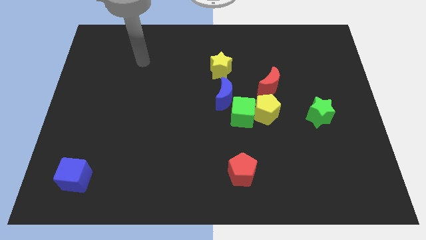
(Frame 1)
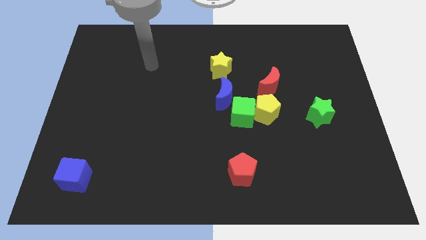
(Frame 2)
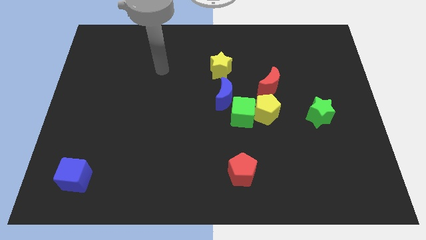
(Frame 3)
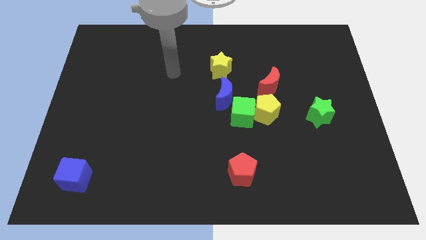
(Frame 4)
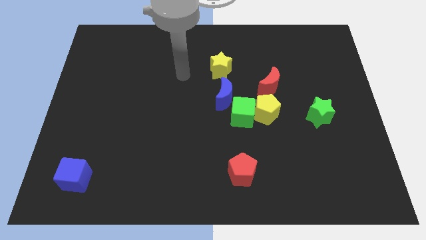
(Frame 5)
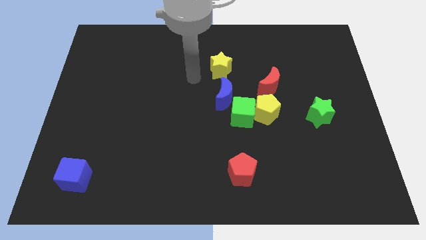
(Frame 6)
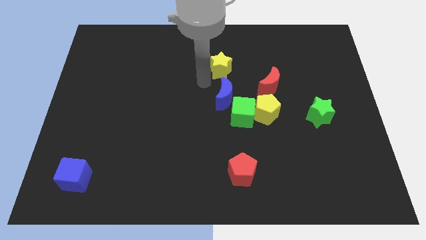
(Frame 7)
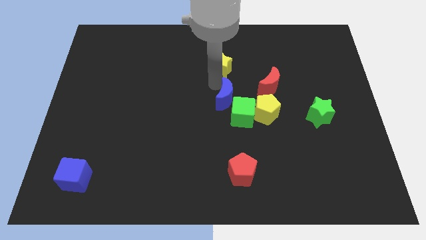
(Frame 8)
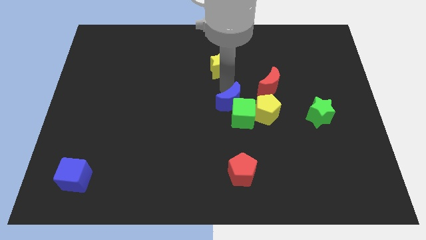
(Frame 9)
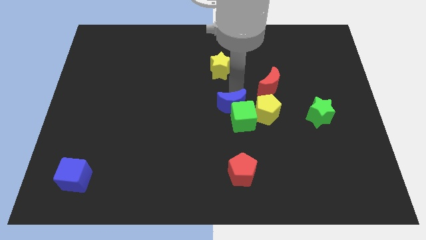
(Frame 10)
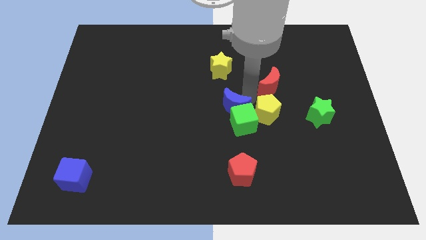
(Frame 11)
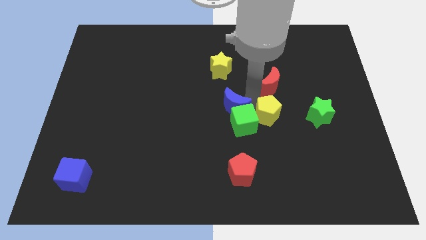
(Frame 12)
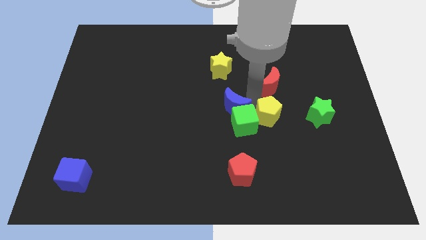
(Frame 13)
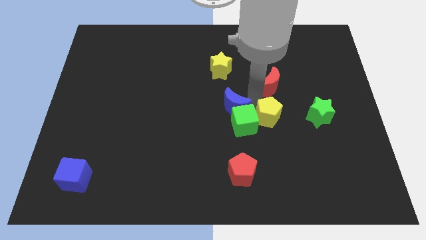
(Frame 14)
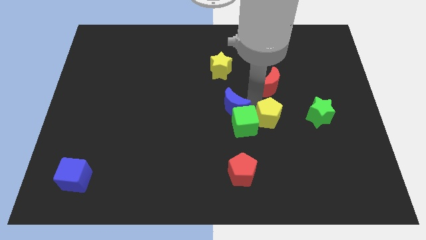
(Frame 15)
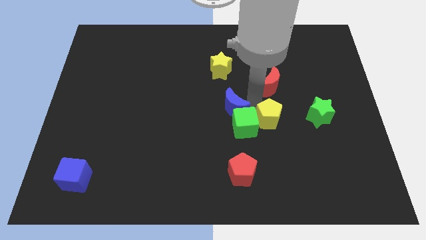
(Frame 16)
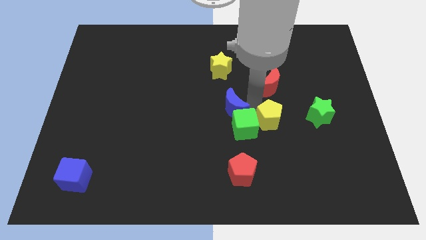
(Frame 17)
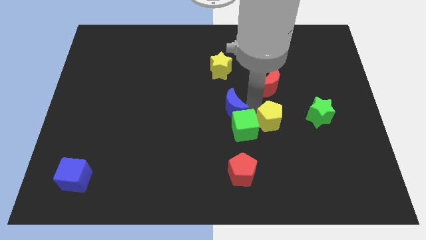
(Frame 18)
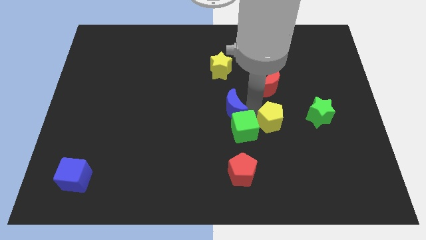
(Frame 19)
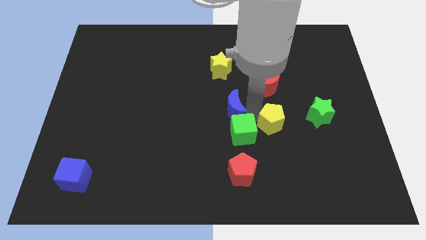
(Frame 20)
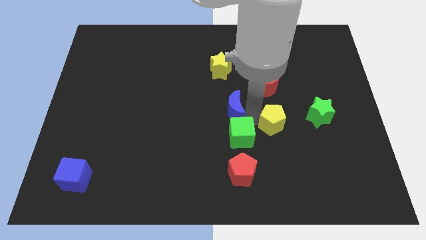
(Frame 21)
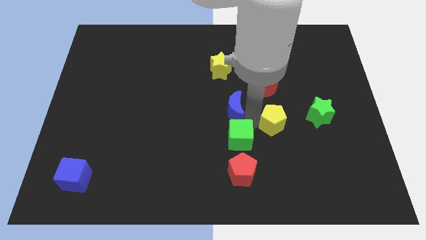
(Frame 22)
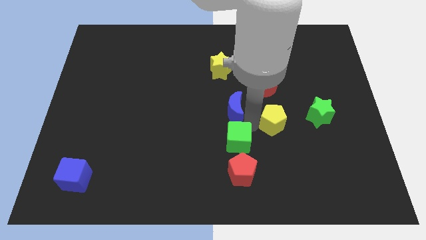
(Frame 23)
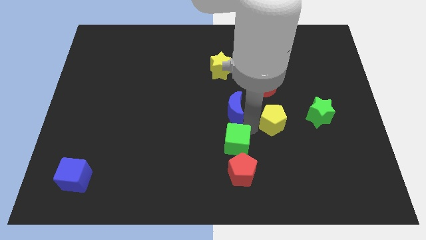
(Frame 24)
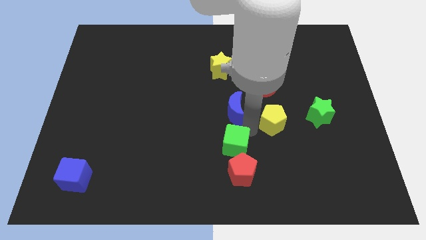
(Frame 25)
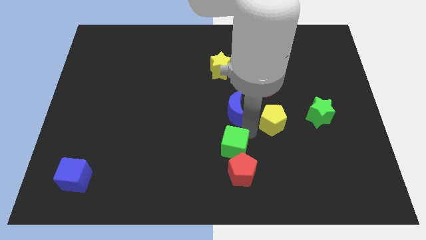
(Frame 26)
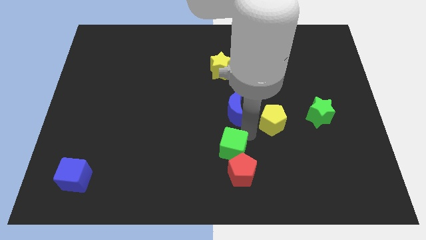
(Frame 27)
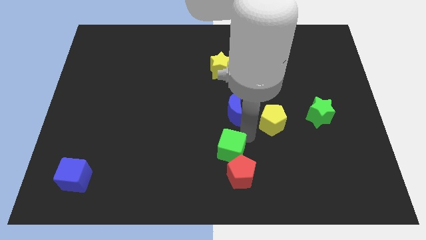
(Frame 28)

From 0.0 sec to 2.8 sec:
move the green cube away from the yellow pentagon and blue moon

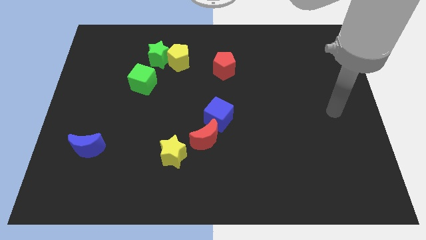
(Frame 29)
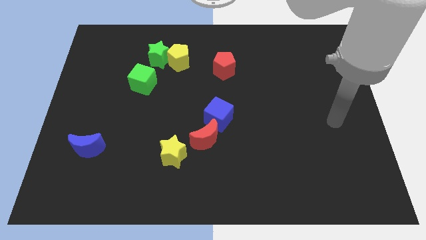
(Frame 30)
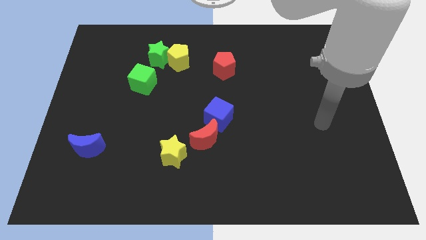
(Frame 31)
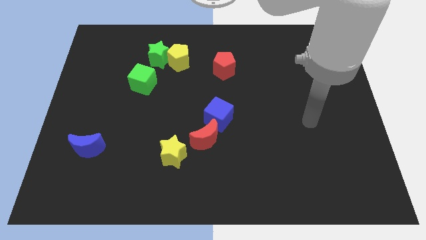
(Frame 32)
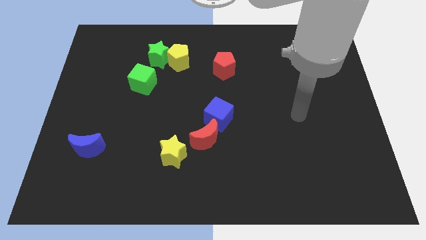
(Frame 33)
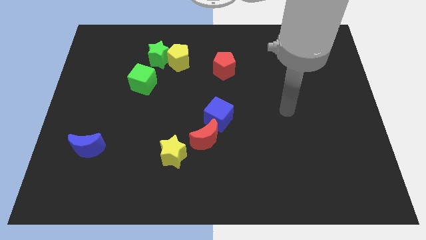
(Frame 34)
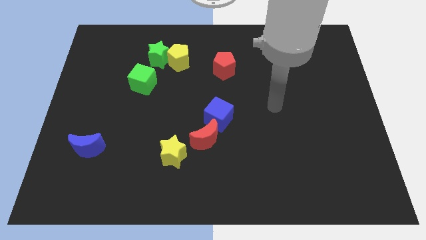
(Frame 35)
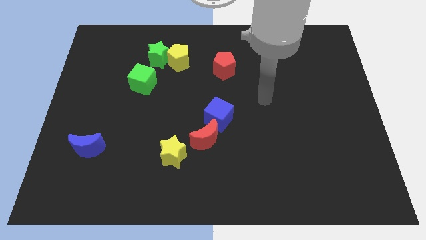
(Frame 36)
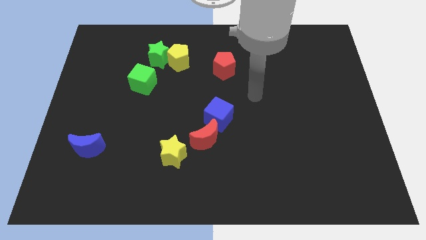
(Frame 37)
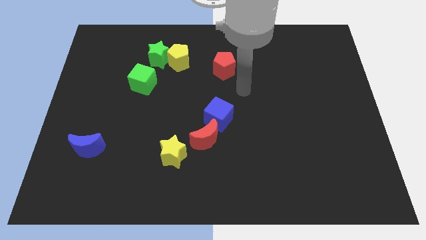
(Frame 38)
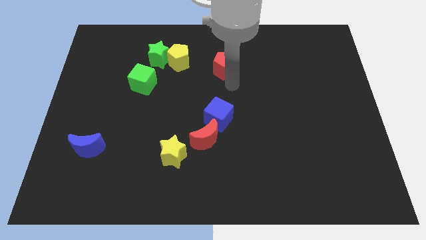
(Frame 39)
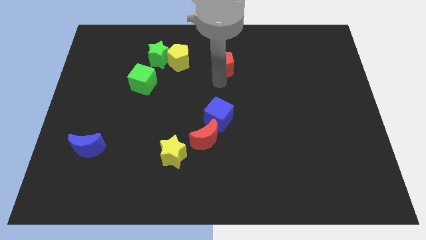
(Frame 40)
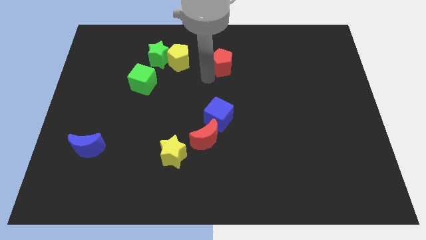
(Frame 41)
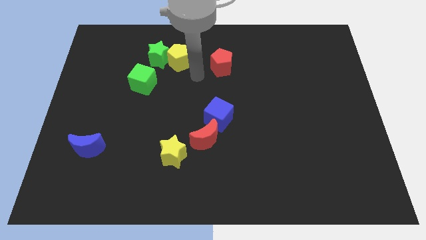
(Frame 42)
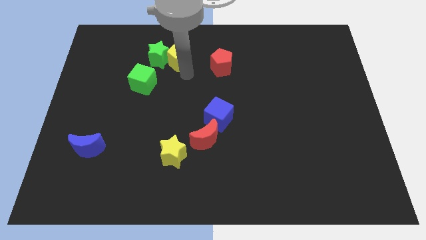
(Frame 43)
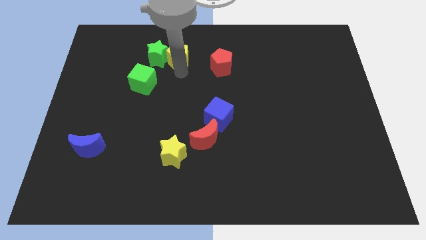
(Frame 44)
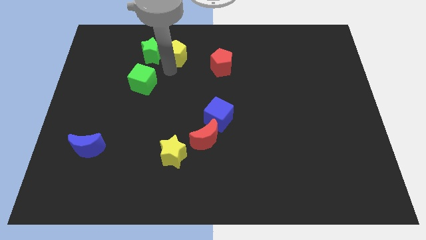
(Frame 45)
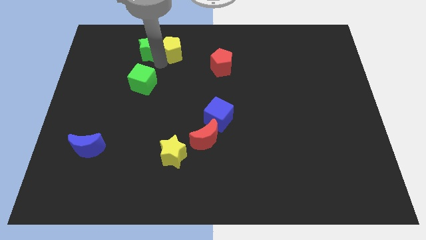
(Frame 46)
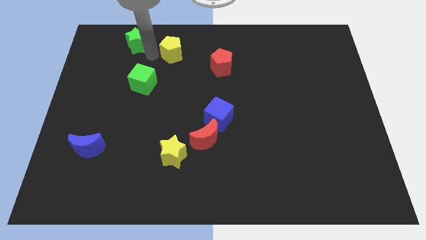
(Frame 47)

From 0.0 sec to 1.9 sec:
move the yellow pentagon away from the green star

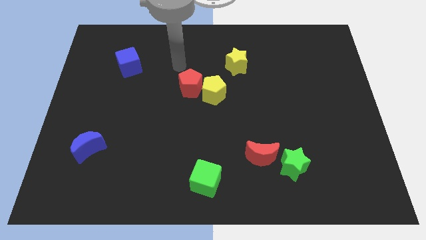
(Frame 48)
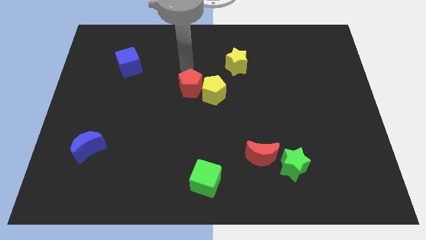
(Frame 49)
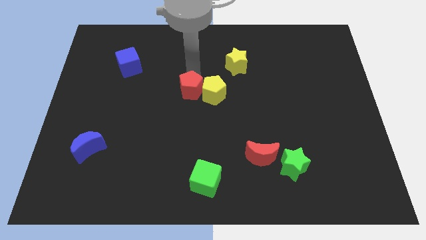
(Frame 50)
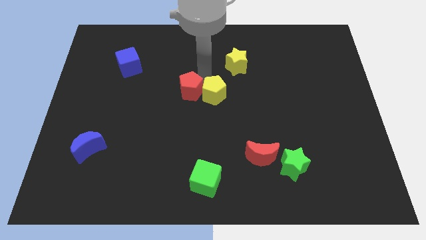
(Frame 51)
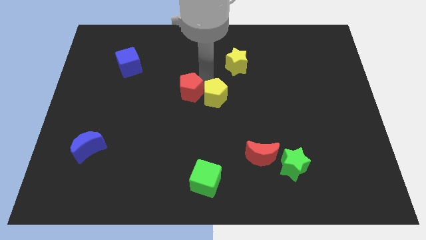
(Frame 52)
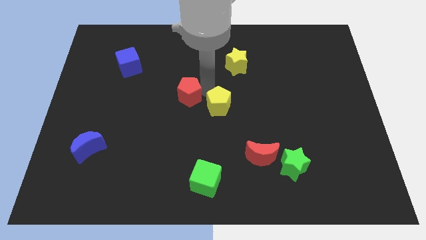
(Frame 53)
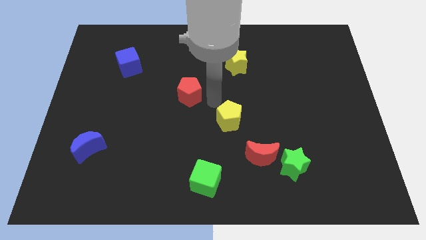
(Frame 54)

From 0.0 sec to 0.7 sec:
separate the red pentagon from the yellow pentagon

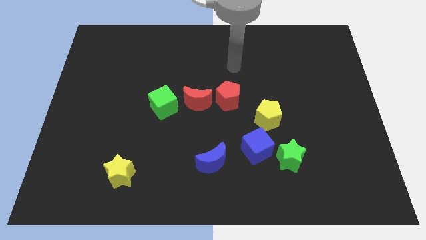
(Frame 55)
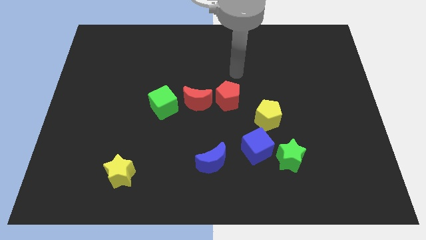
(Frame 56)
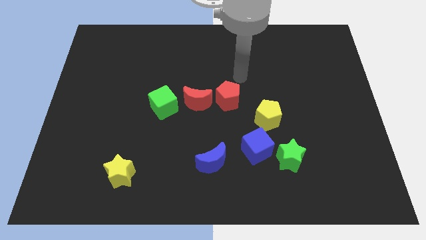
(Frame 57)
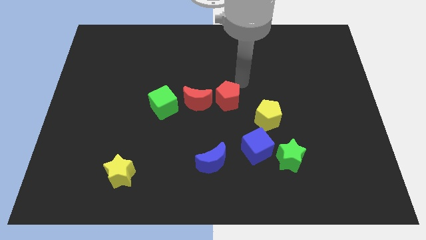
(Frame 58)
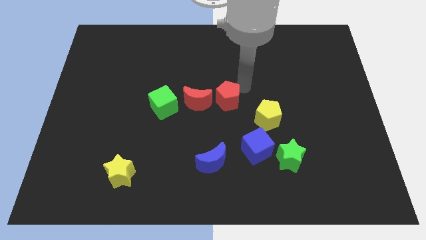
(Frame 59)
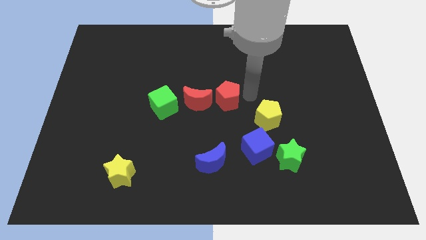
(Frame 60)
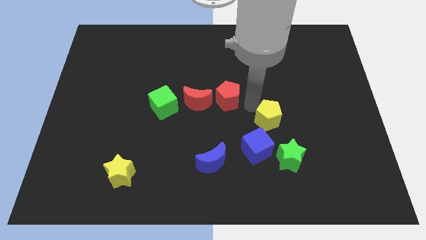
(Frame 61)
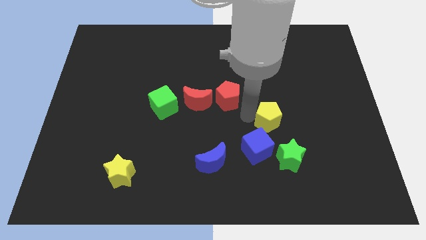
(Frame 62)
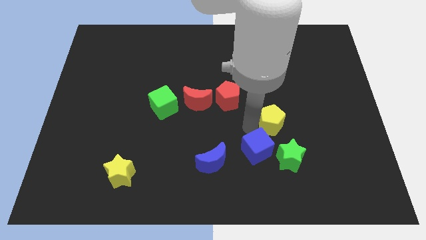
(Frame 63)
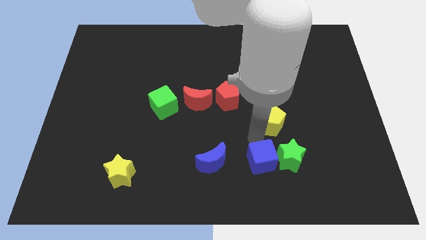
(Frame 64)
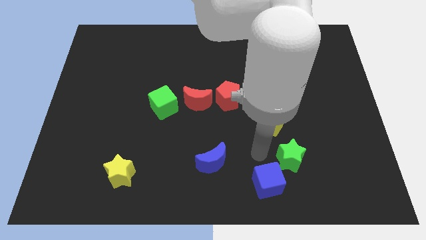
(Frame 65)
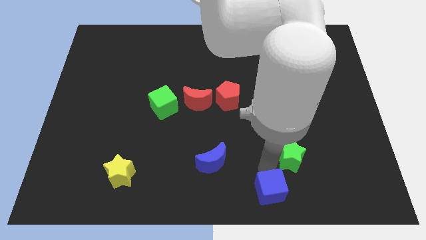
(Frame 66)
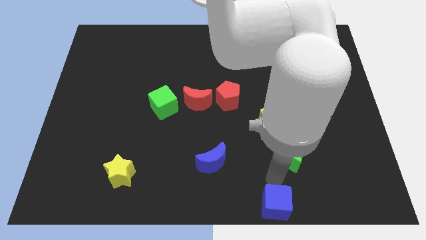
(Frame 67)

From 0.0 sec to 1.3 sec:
pull the green star apart from the blue cube

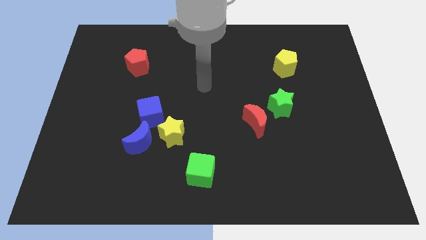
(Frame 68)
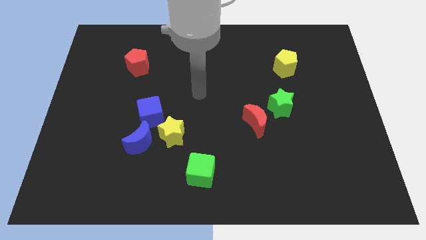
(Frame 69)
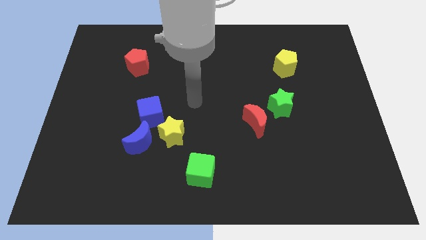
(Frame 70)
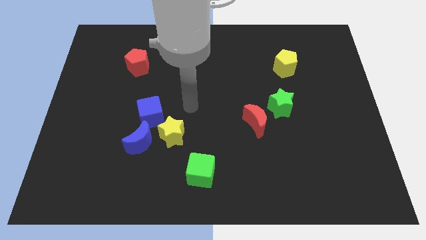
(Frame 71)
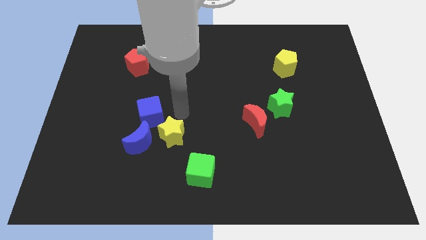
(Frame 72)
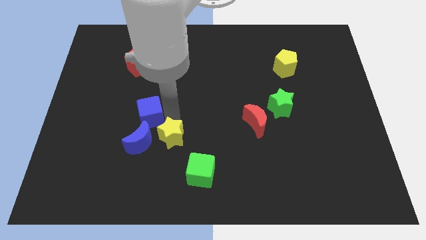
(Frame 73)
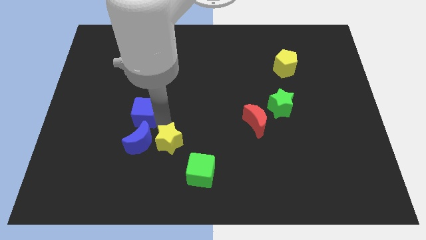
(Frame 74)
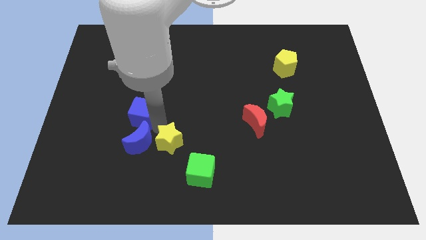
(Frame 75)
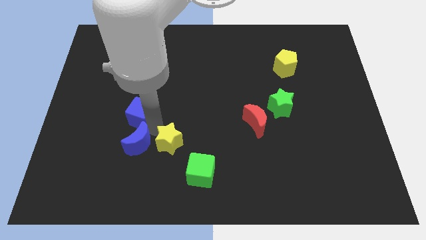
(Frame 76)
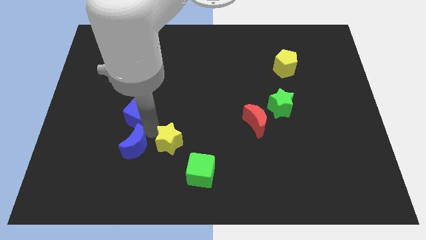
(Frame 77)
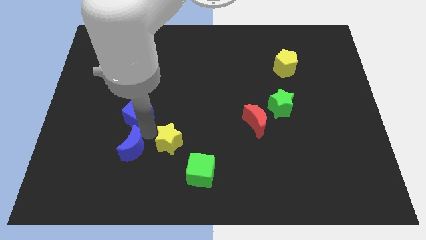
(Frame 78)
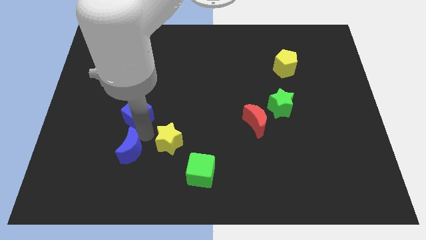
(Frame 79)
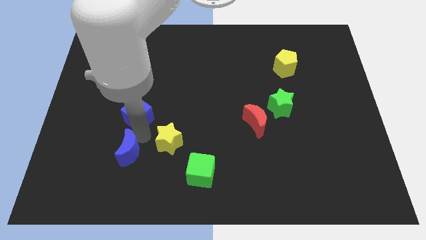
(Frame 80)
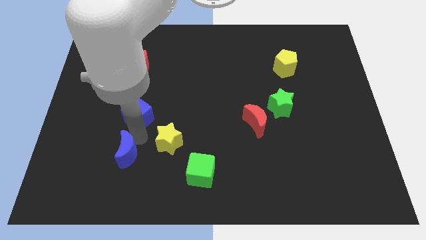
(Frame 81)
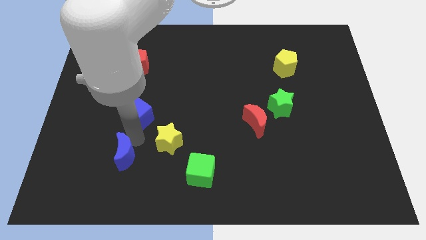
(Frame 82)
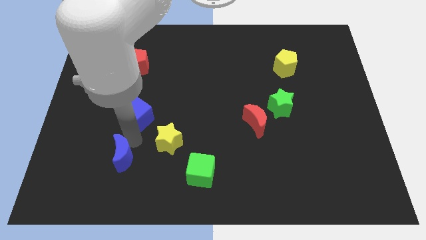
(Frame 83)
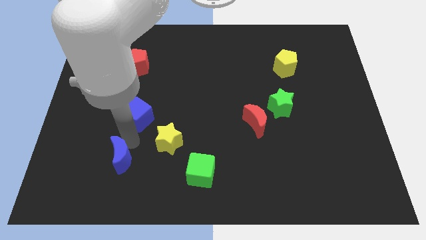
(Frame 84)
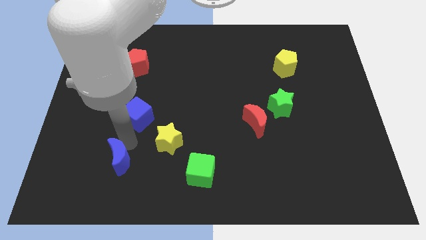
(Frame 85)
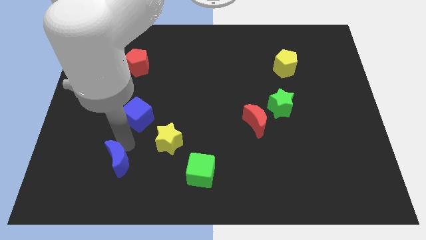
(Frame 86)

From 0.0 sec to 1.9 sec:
move the blue moon away from the yellow star and blue cube

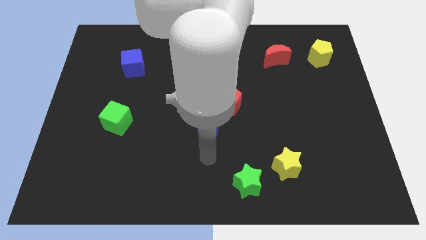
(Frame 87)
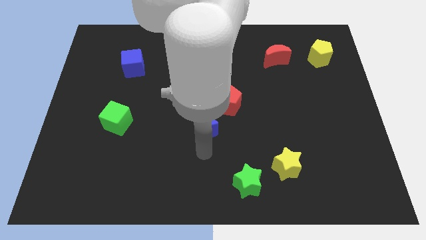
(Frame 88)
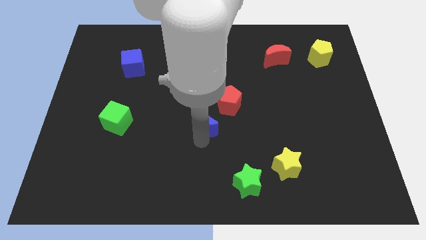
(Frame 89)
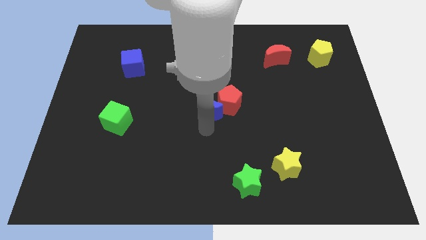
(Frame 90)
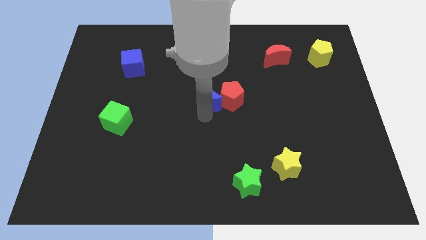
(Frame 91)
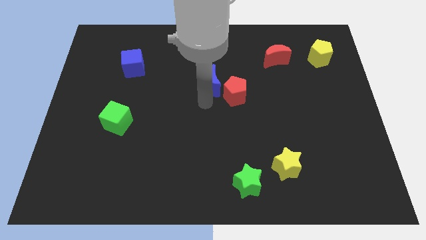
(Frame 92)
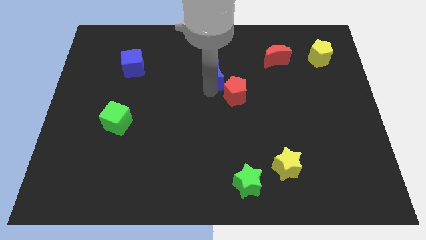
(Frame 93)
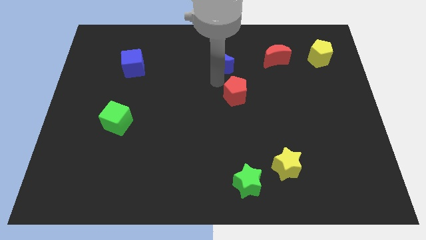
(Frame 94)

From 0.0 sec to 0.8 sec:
separate the red pentagon from the blue moon
